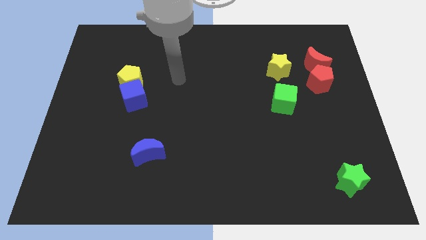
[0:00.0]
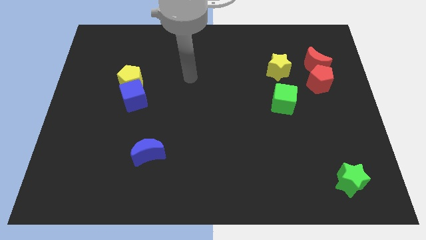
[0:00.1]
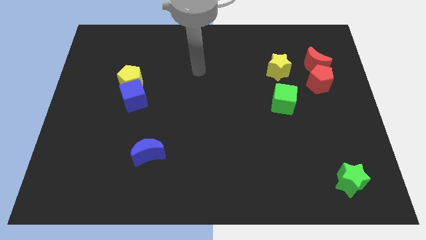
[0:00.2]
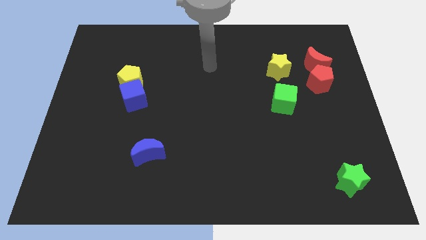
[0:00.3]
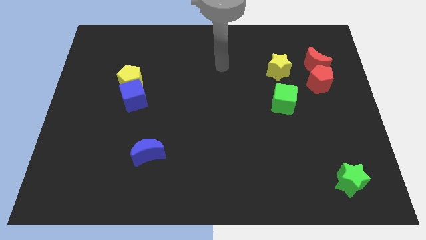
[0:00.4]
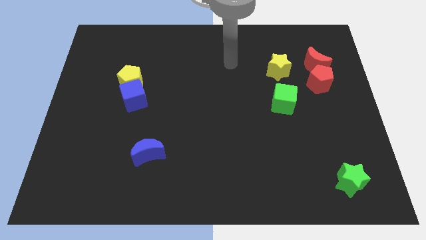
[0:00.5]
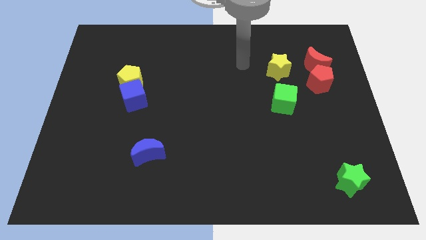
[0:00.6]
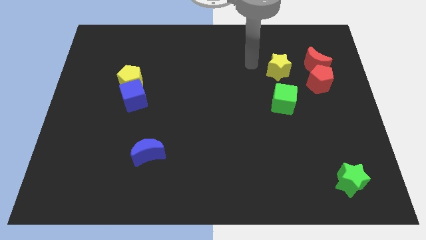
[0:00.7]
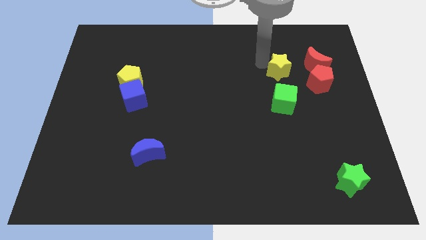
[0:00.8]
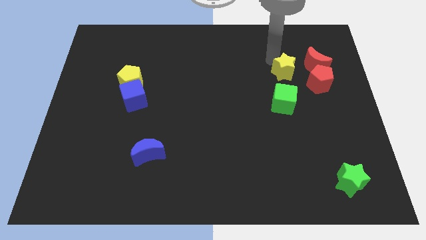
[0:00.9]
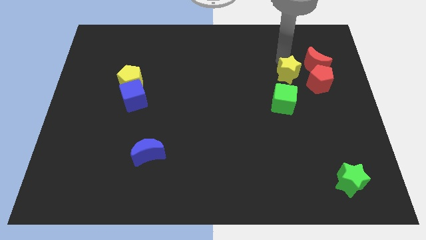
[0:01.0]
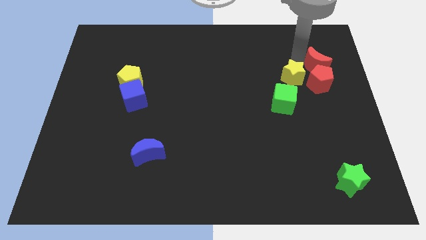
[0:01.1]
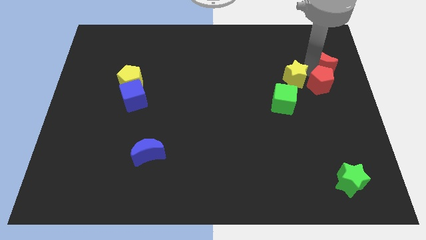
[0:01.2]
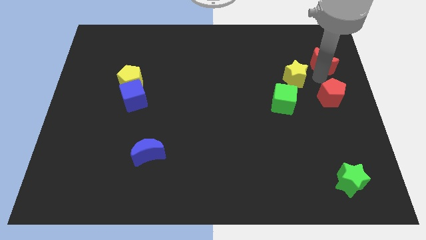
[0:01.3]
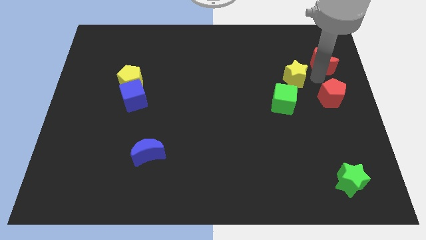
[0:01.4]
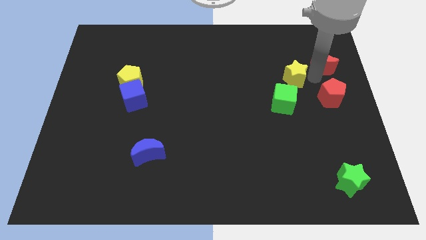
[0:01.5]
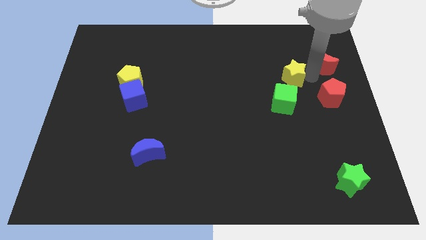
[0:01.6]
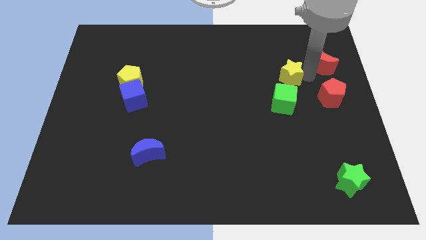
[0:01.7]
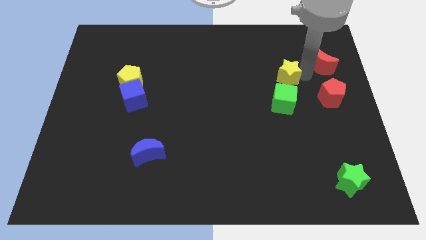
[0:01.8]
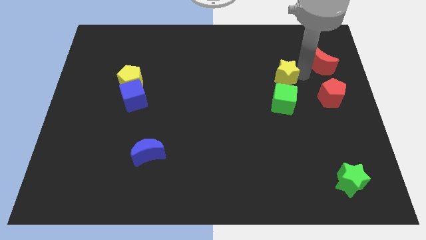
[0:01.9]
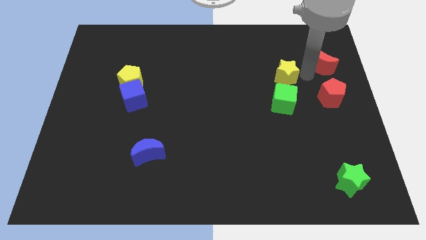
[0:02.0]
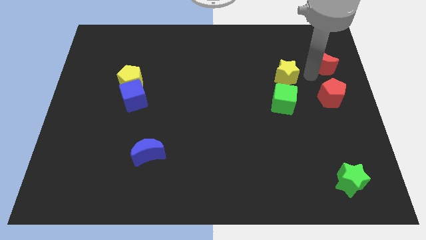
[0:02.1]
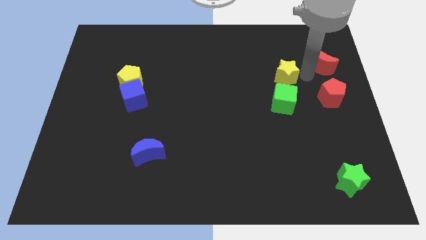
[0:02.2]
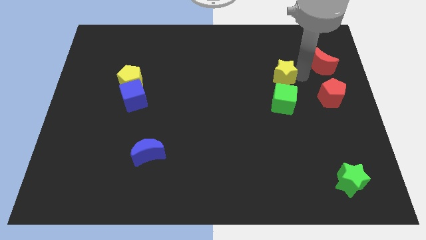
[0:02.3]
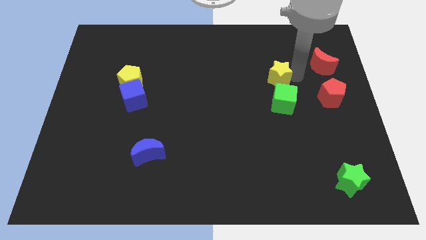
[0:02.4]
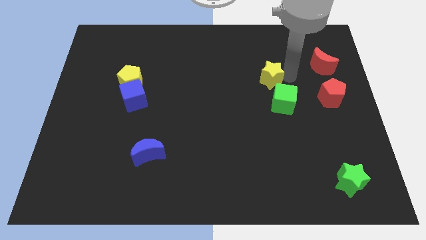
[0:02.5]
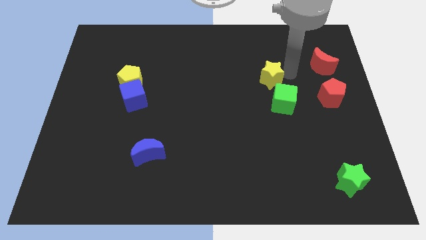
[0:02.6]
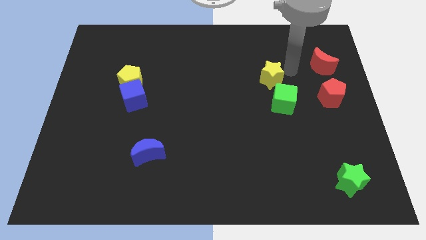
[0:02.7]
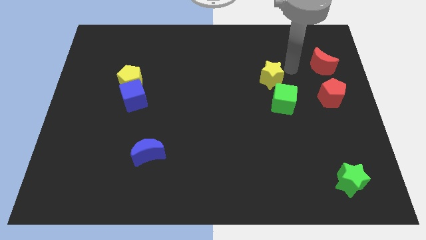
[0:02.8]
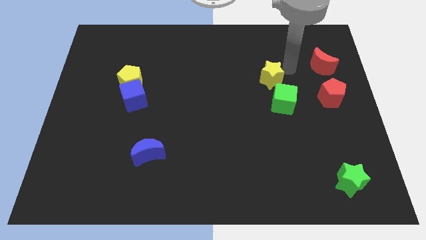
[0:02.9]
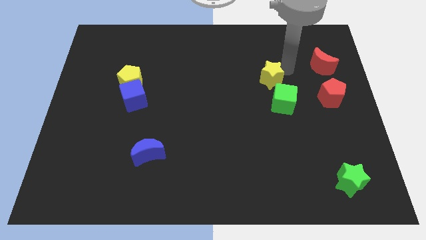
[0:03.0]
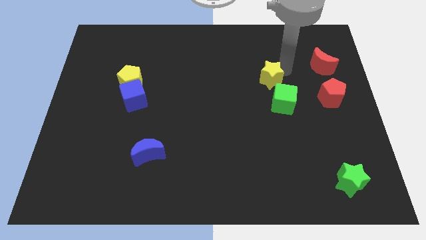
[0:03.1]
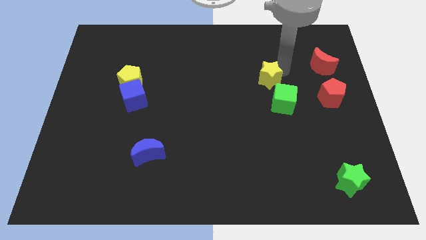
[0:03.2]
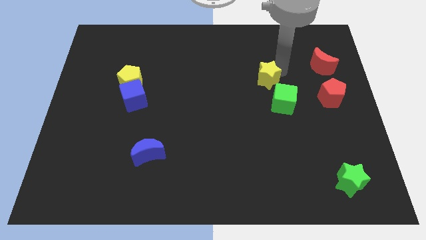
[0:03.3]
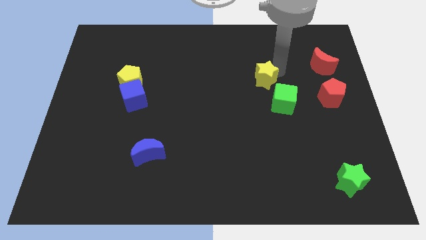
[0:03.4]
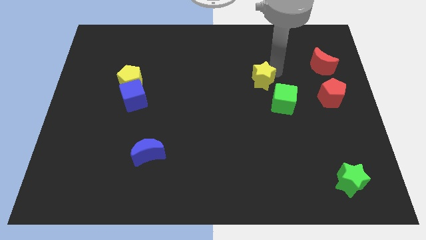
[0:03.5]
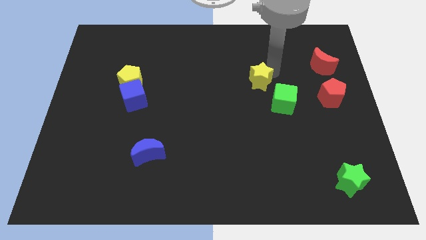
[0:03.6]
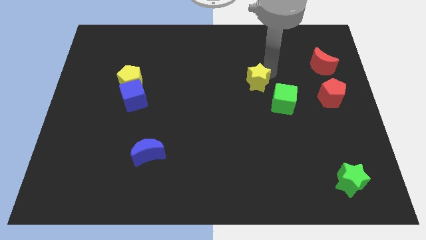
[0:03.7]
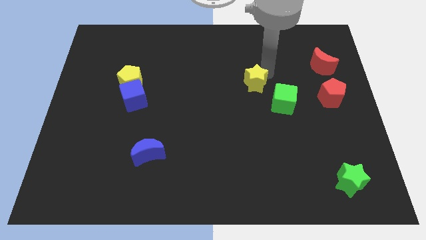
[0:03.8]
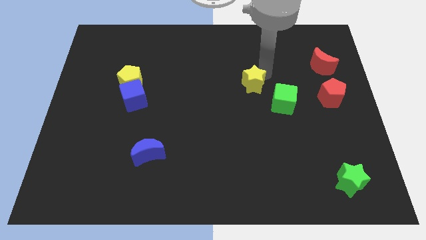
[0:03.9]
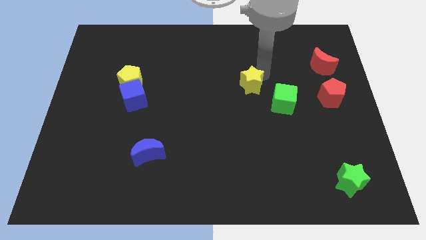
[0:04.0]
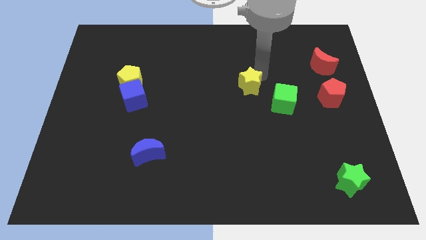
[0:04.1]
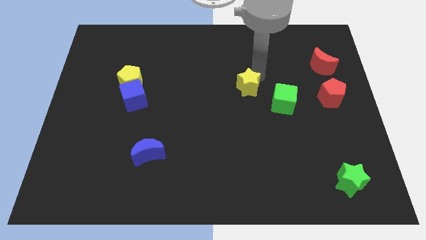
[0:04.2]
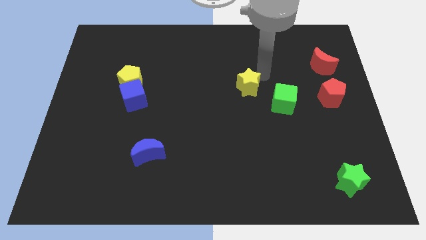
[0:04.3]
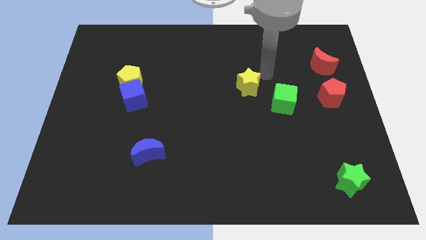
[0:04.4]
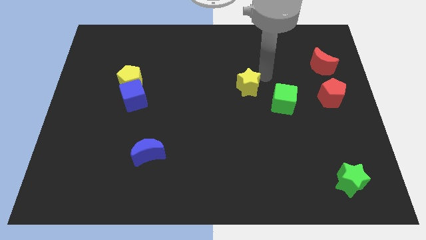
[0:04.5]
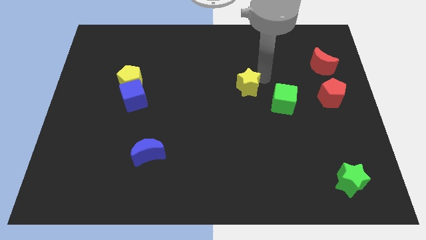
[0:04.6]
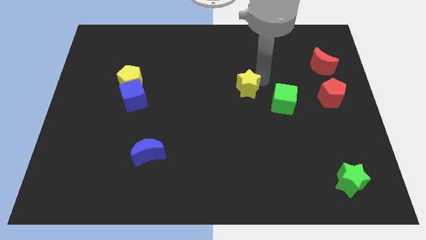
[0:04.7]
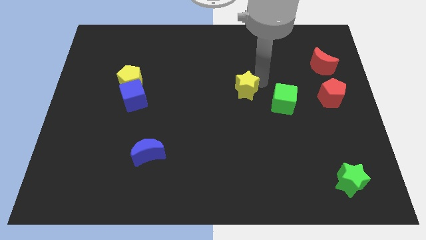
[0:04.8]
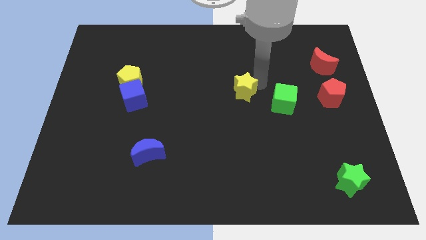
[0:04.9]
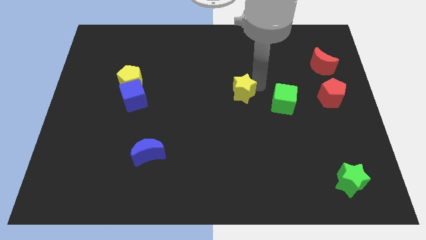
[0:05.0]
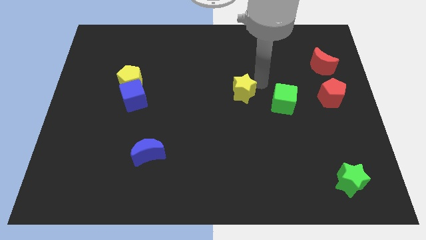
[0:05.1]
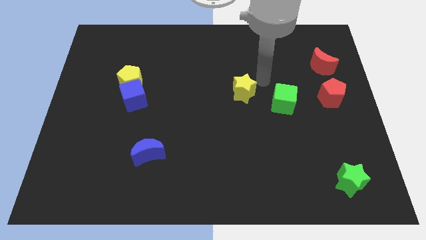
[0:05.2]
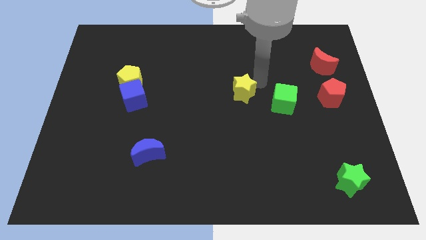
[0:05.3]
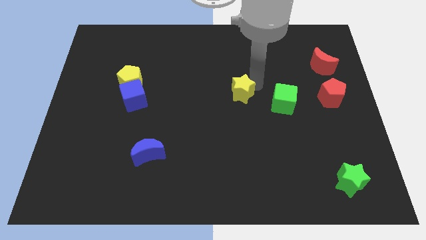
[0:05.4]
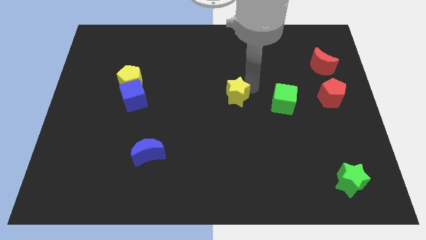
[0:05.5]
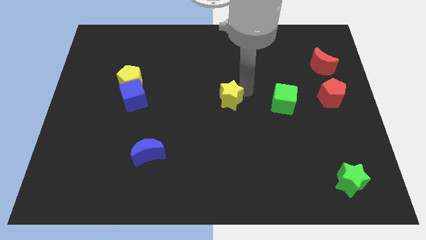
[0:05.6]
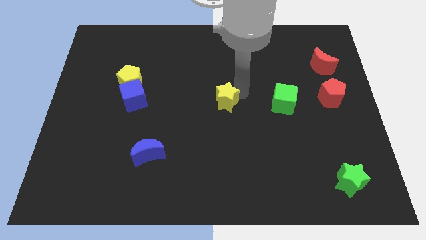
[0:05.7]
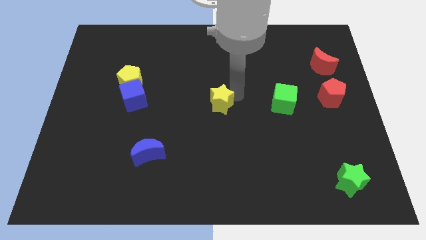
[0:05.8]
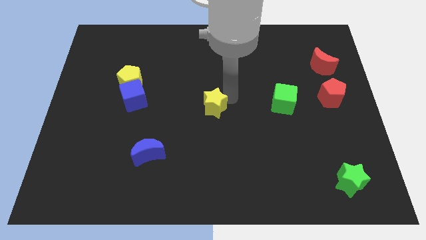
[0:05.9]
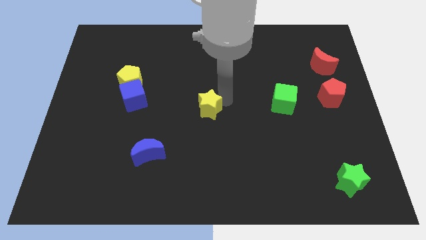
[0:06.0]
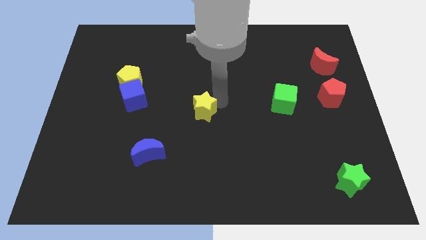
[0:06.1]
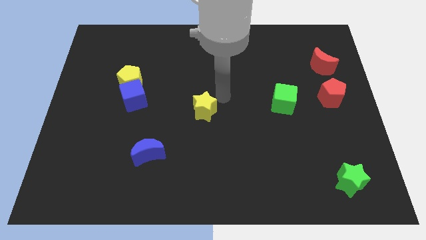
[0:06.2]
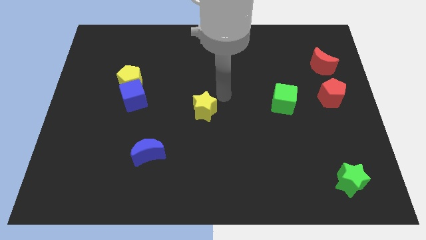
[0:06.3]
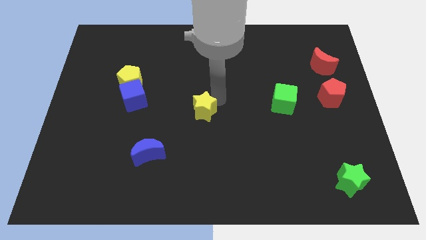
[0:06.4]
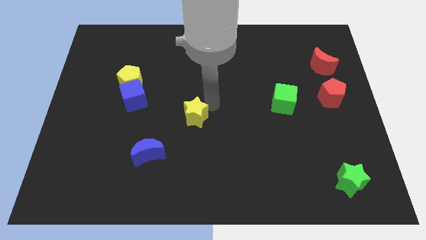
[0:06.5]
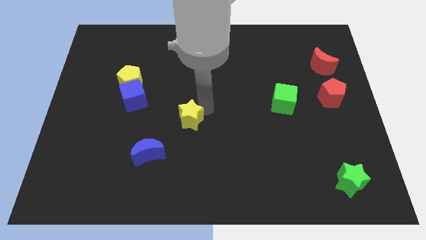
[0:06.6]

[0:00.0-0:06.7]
push the yellow star to the top right of the blue moon

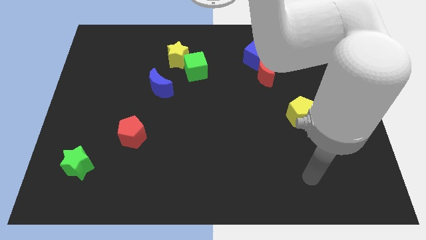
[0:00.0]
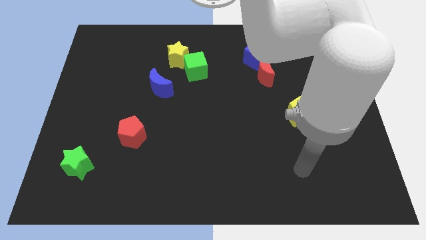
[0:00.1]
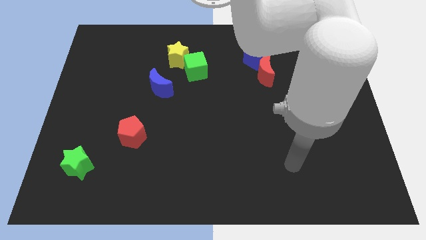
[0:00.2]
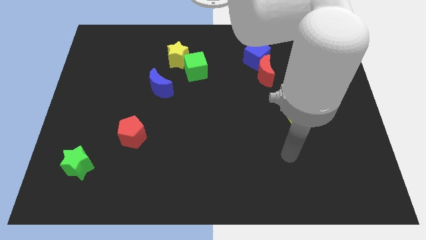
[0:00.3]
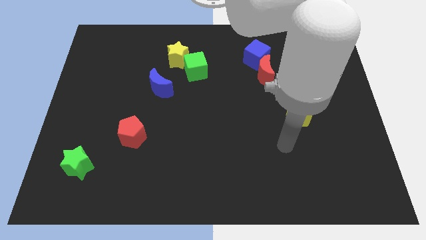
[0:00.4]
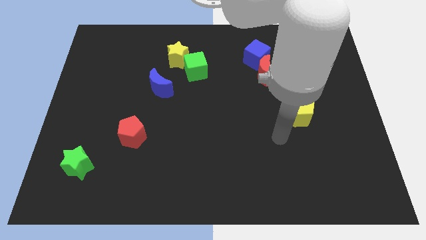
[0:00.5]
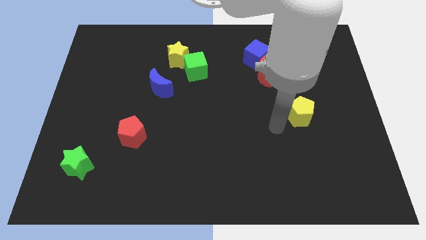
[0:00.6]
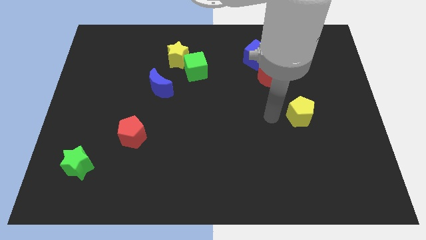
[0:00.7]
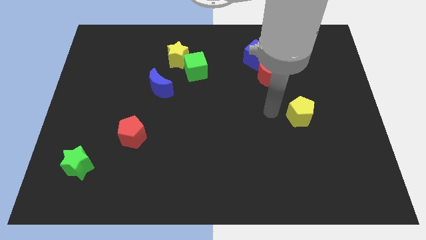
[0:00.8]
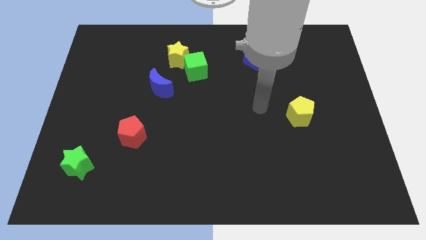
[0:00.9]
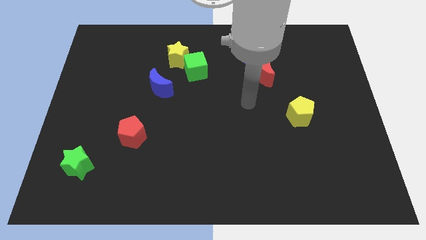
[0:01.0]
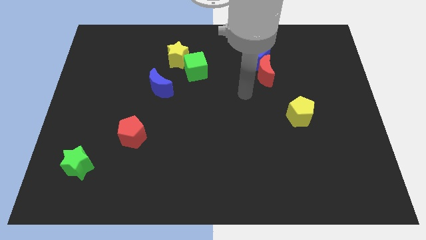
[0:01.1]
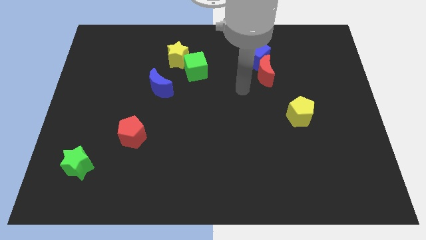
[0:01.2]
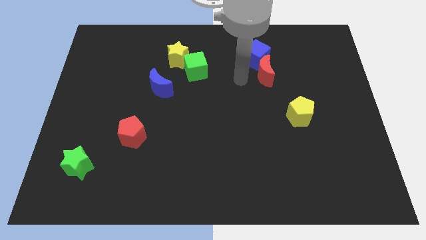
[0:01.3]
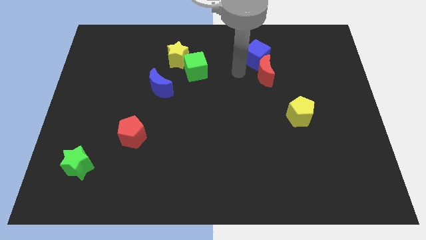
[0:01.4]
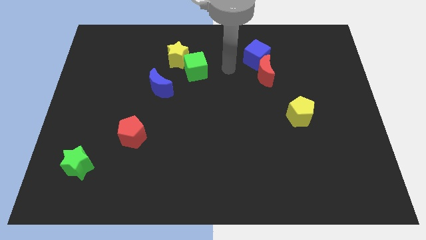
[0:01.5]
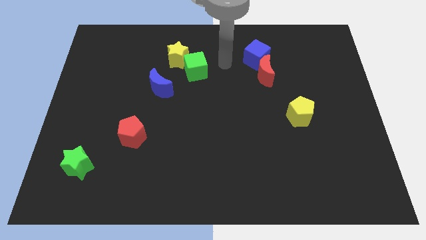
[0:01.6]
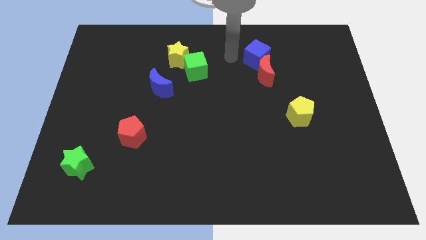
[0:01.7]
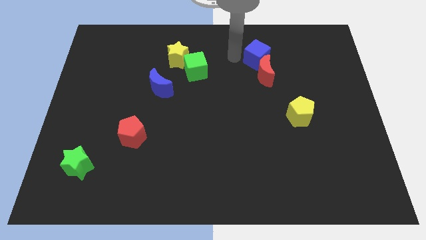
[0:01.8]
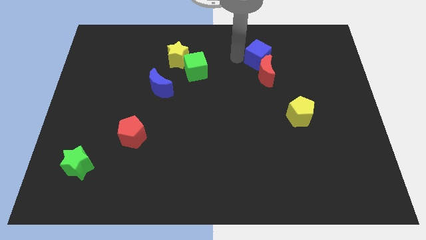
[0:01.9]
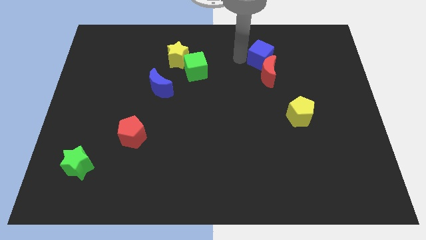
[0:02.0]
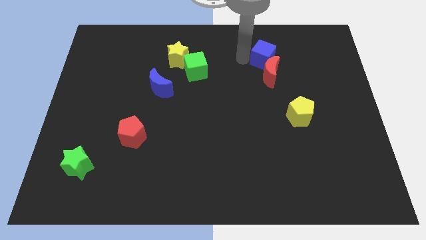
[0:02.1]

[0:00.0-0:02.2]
move the blue cube diagonally up and to the right of the red moon
